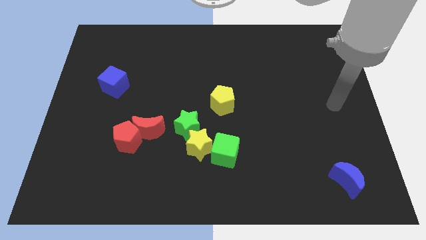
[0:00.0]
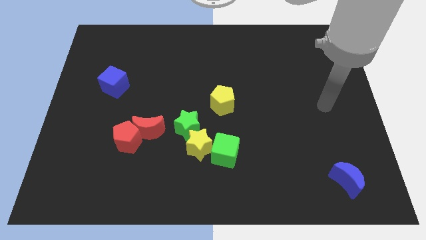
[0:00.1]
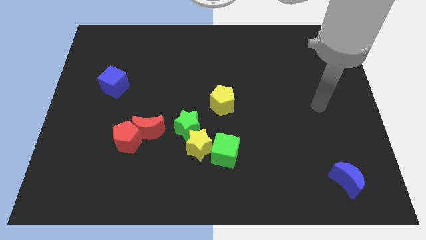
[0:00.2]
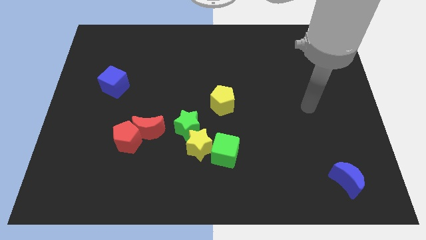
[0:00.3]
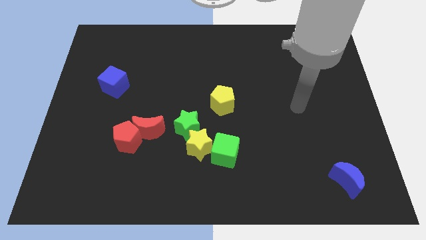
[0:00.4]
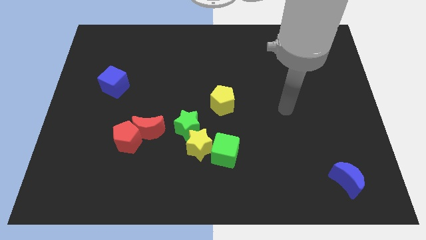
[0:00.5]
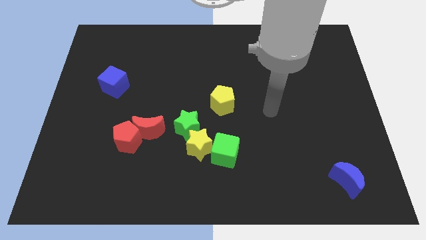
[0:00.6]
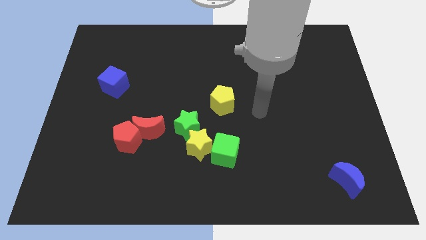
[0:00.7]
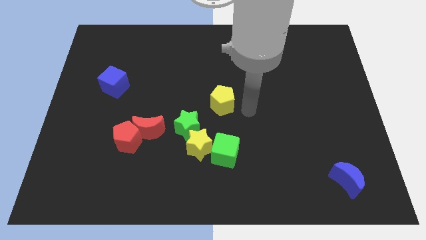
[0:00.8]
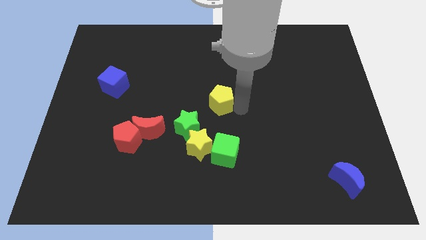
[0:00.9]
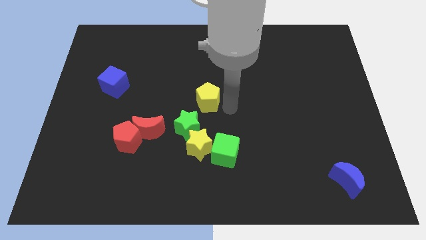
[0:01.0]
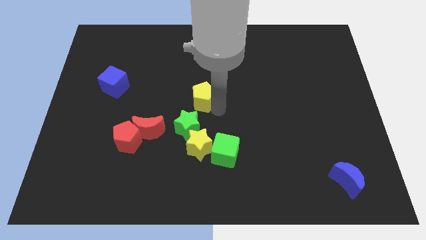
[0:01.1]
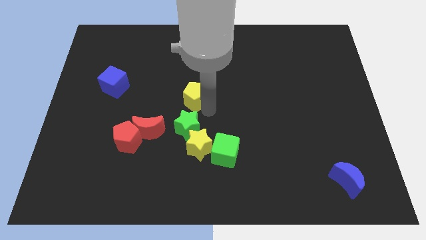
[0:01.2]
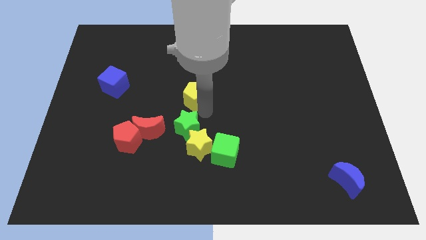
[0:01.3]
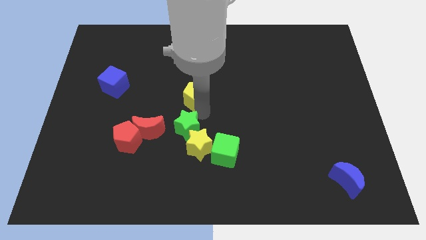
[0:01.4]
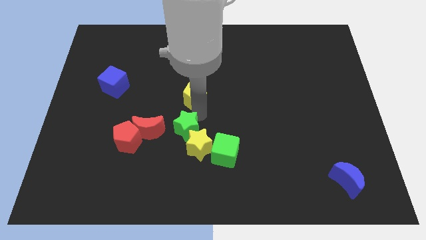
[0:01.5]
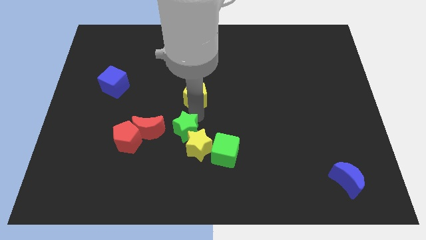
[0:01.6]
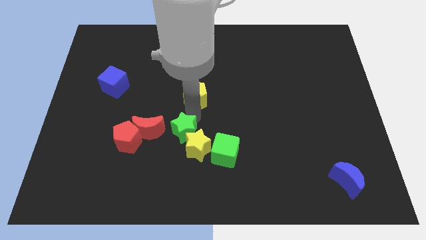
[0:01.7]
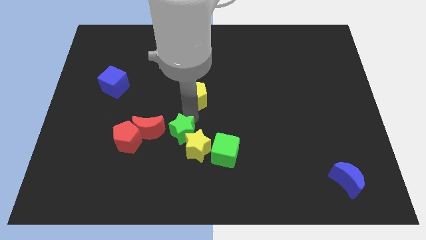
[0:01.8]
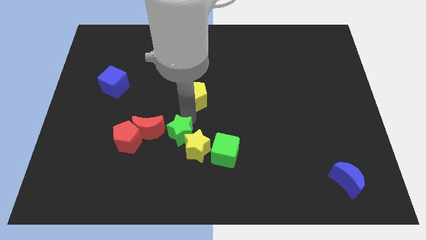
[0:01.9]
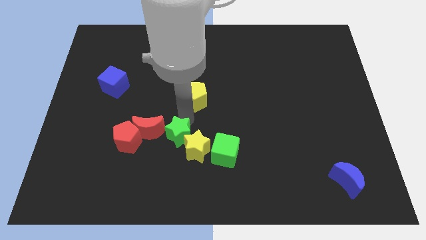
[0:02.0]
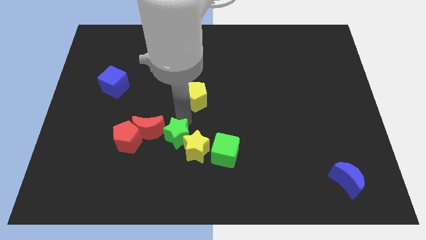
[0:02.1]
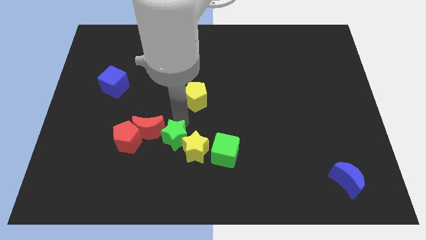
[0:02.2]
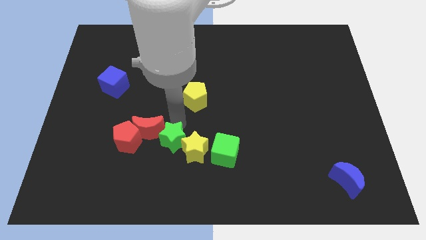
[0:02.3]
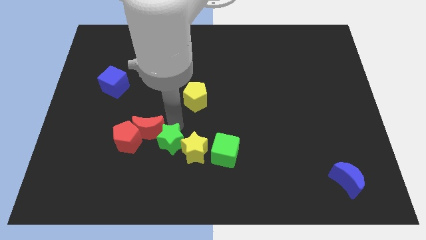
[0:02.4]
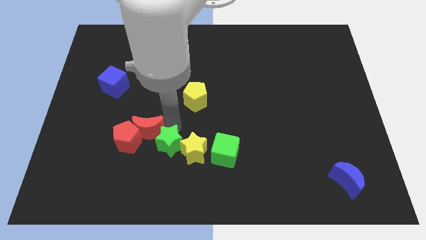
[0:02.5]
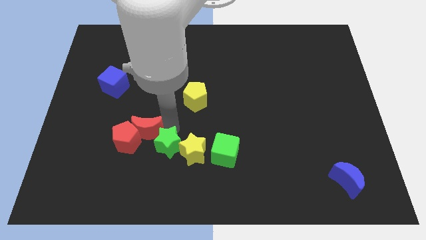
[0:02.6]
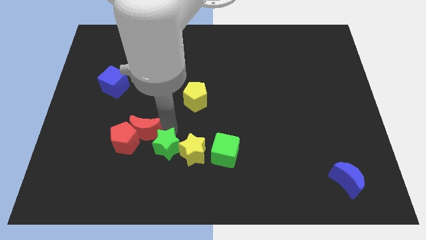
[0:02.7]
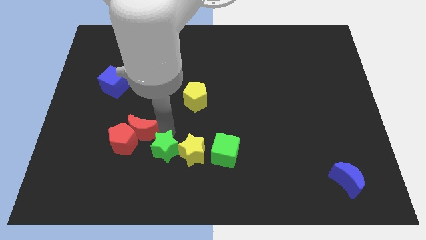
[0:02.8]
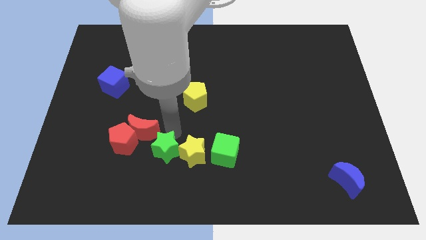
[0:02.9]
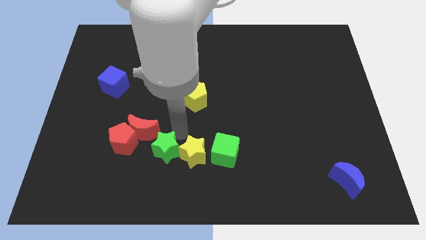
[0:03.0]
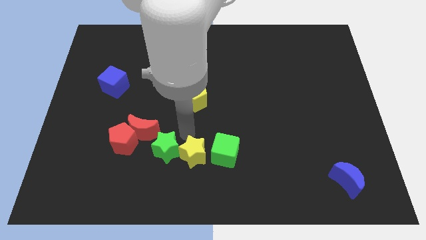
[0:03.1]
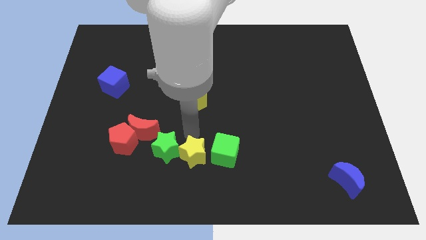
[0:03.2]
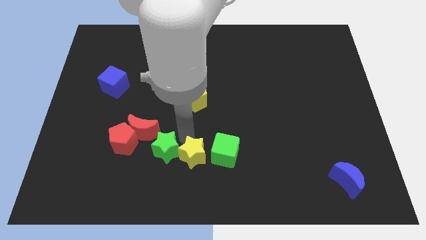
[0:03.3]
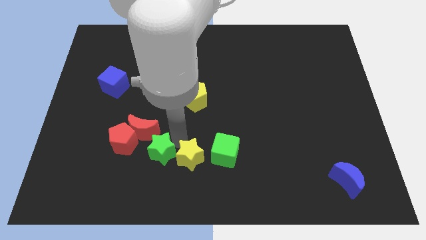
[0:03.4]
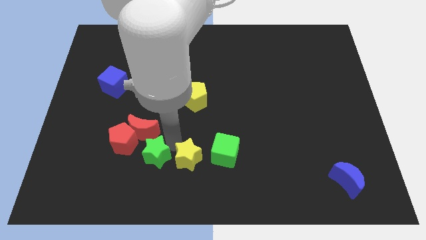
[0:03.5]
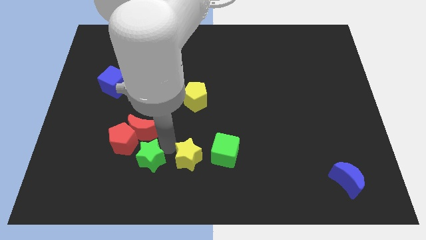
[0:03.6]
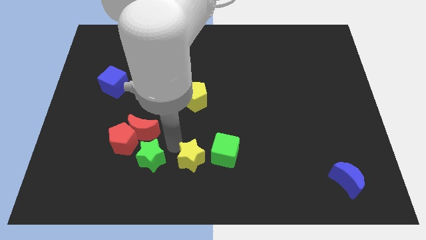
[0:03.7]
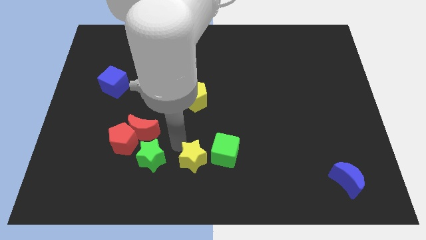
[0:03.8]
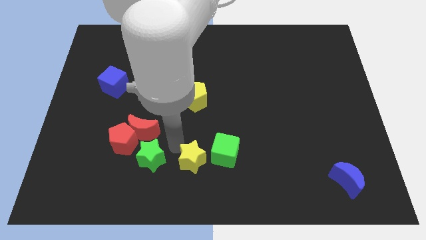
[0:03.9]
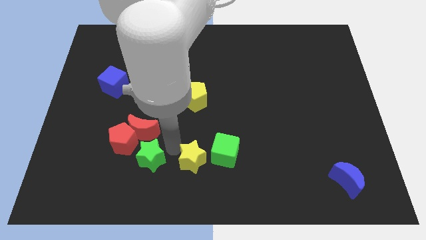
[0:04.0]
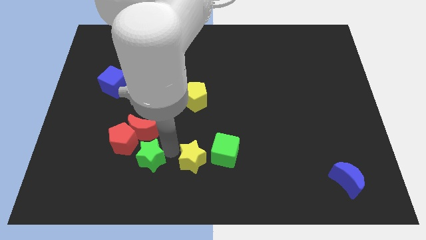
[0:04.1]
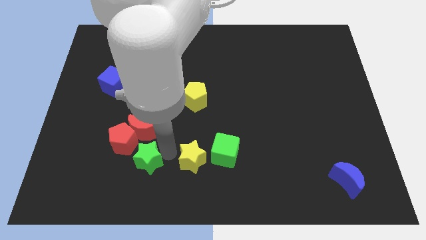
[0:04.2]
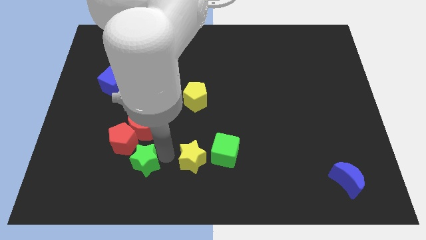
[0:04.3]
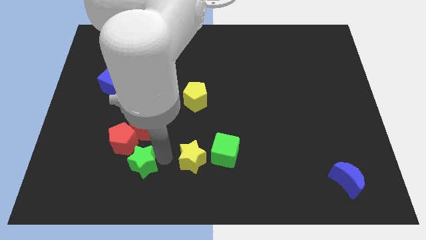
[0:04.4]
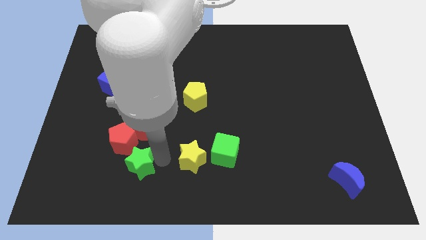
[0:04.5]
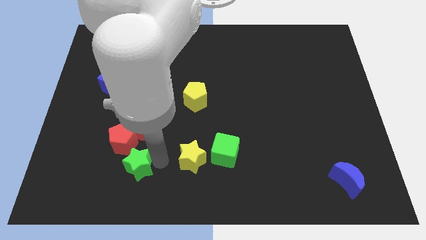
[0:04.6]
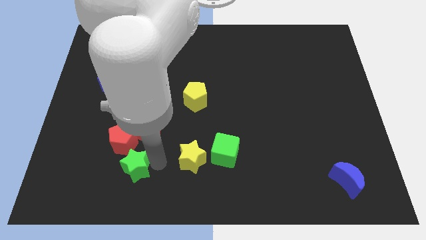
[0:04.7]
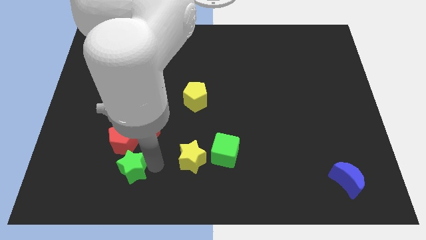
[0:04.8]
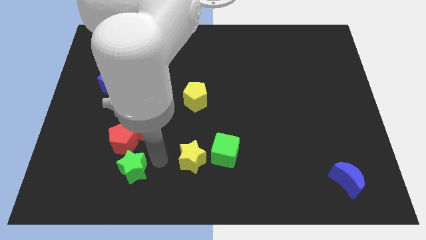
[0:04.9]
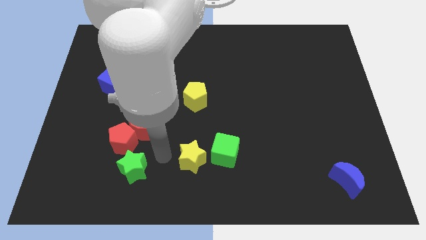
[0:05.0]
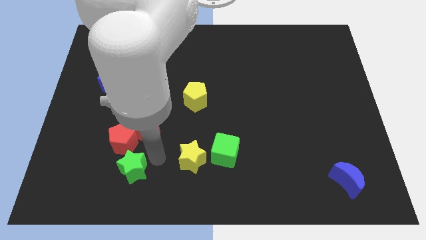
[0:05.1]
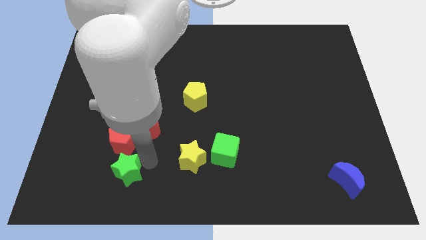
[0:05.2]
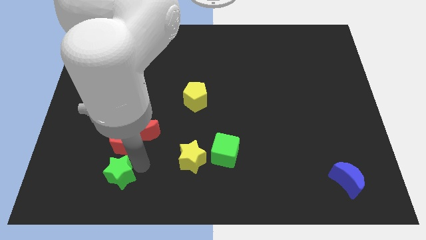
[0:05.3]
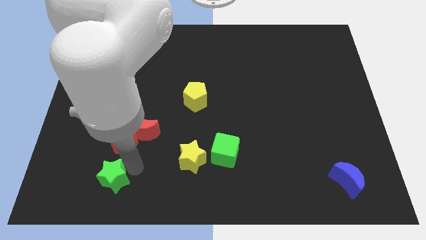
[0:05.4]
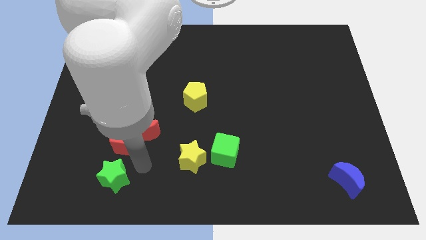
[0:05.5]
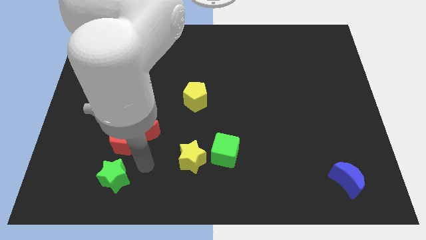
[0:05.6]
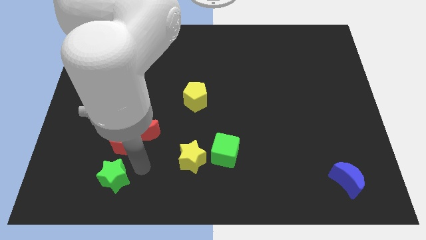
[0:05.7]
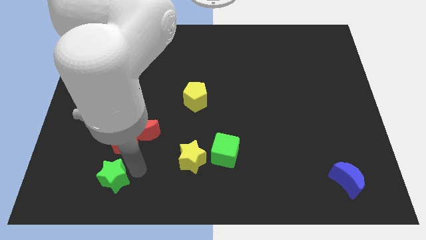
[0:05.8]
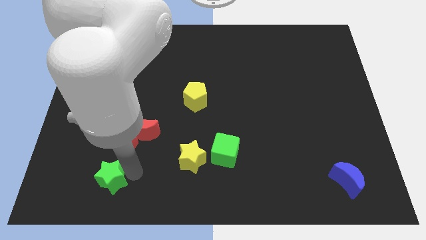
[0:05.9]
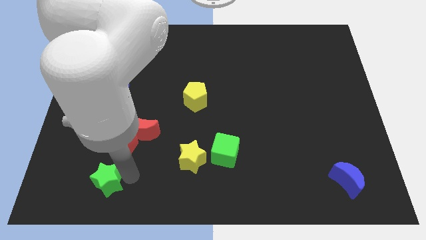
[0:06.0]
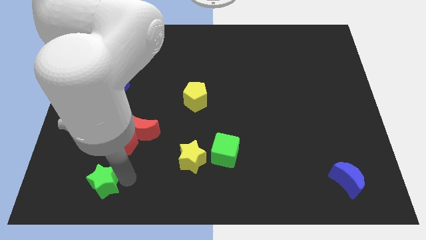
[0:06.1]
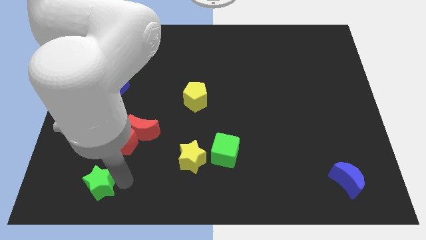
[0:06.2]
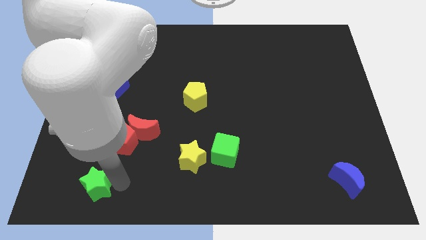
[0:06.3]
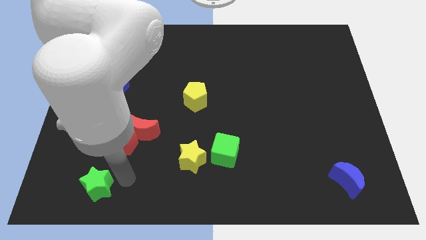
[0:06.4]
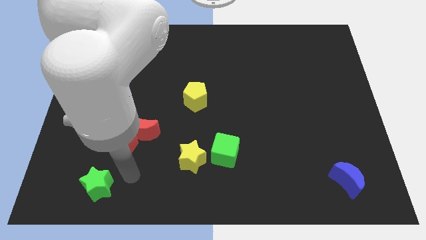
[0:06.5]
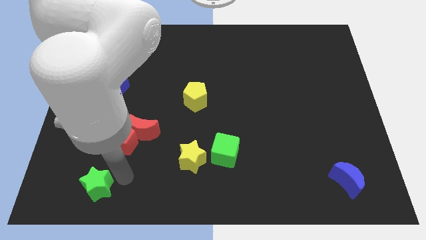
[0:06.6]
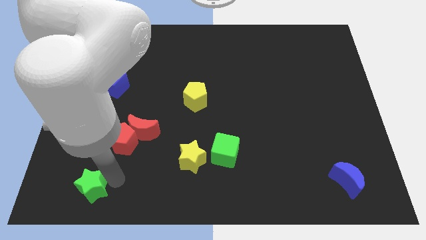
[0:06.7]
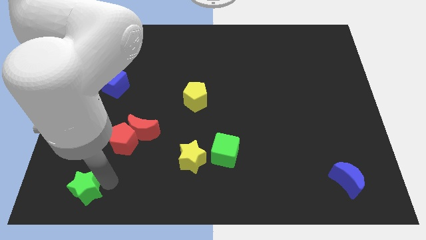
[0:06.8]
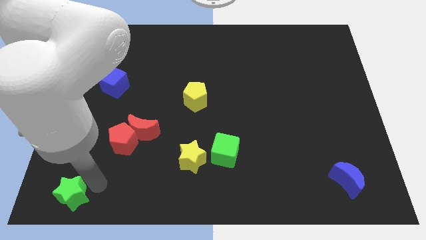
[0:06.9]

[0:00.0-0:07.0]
slide the green star to the bottom left corner
